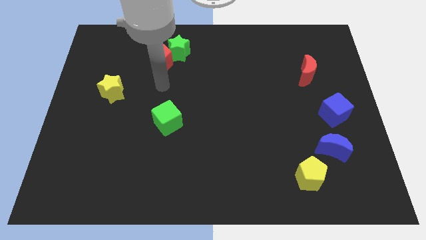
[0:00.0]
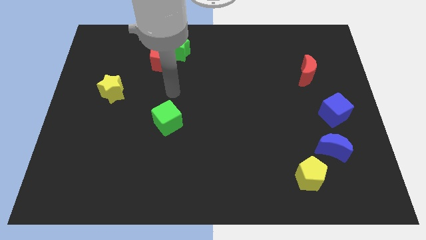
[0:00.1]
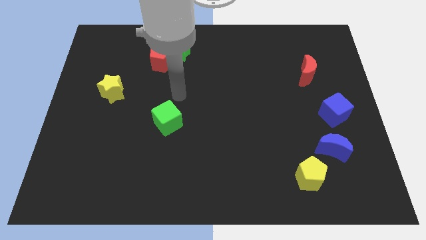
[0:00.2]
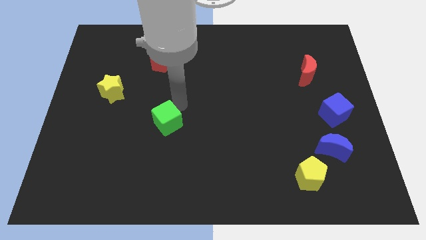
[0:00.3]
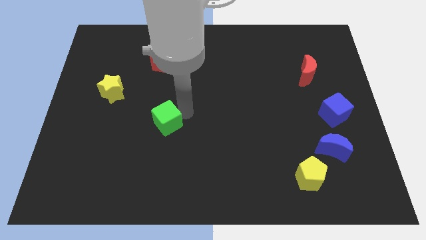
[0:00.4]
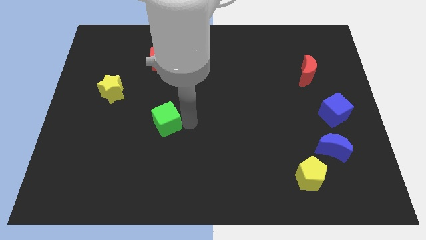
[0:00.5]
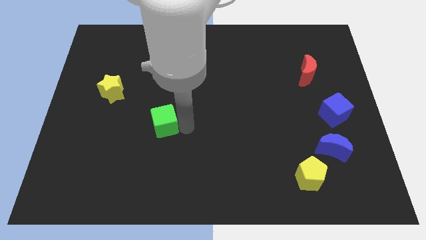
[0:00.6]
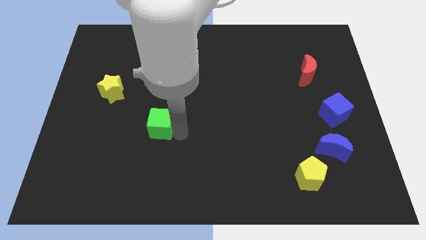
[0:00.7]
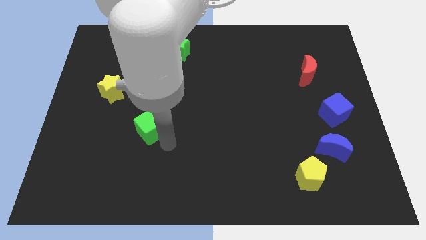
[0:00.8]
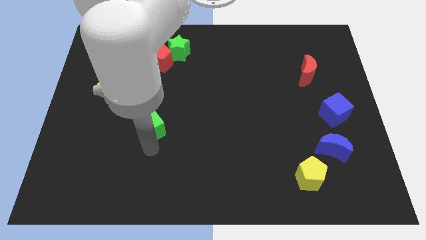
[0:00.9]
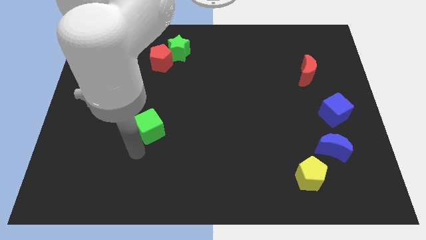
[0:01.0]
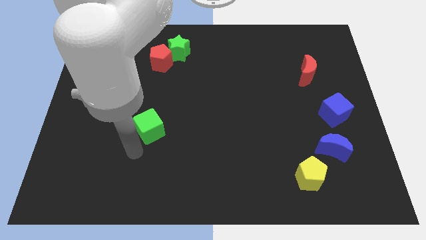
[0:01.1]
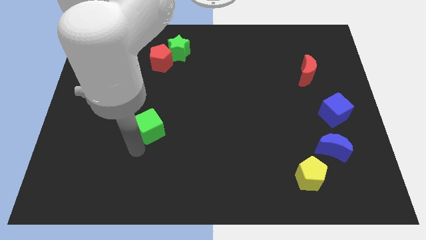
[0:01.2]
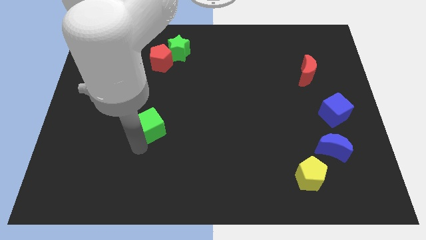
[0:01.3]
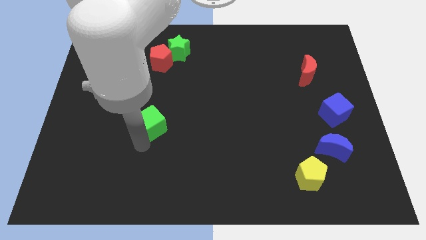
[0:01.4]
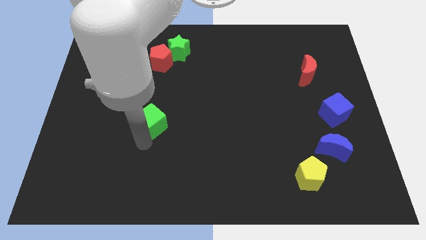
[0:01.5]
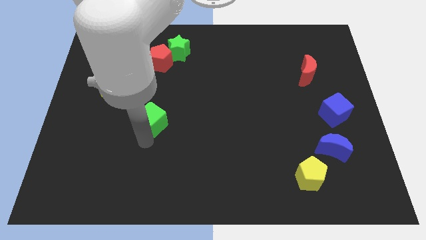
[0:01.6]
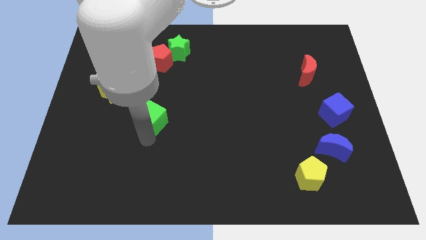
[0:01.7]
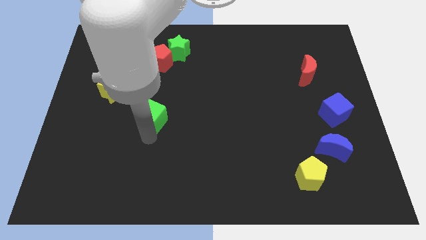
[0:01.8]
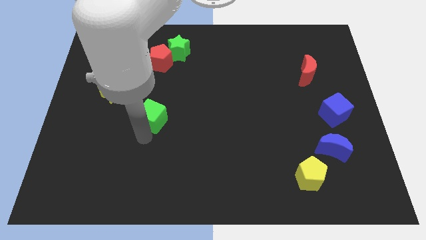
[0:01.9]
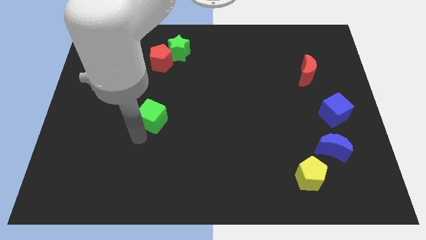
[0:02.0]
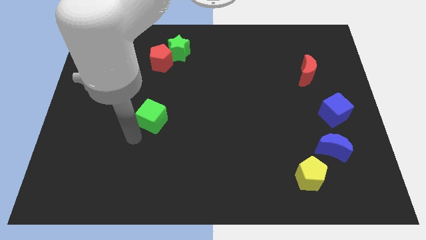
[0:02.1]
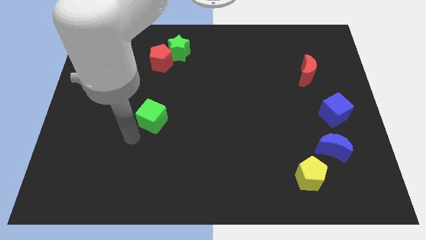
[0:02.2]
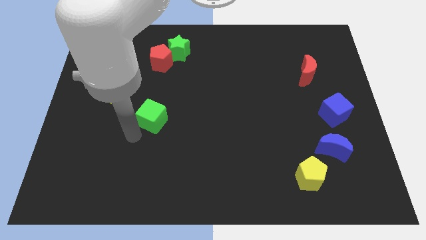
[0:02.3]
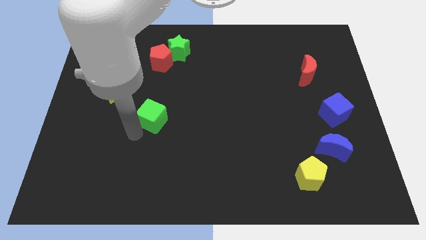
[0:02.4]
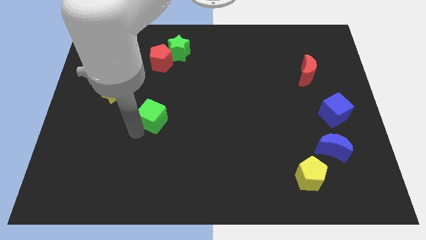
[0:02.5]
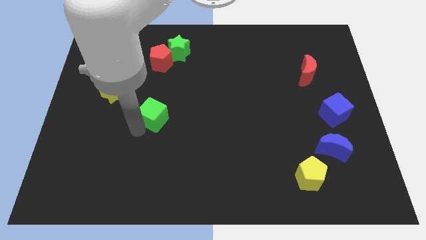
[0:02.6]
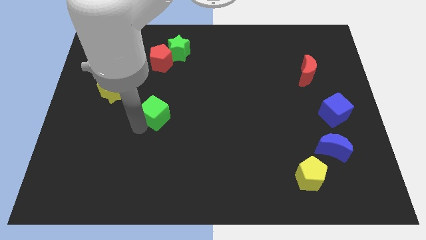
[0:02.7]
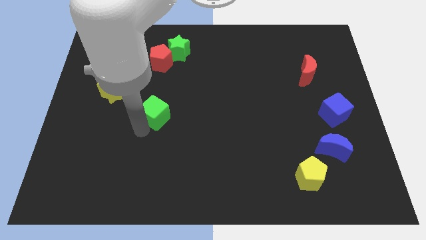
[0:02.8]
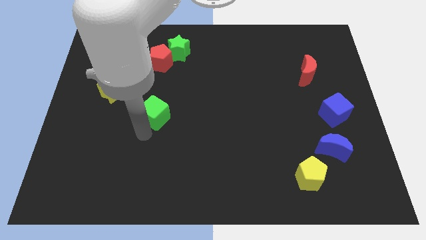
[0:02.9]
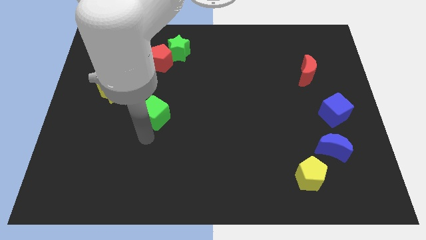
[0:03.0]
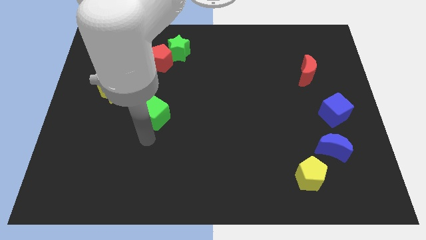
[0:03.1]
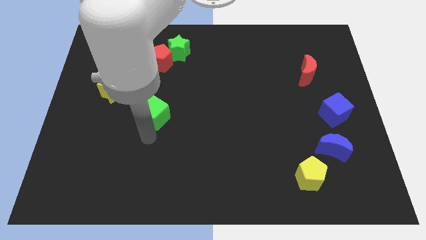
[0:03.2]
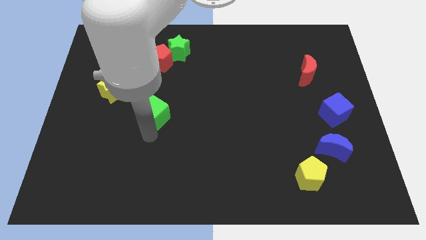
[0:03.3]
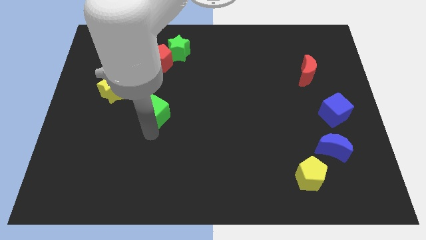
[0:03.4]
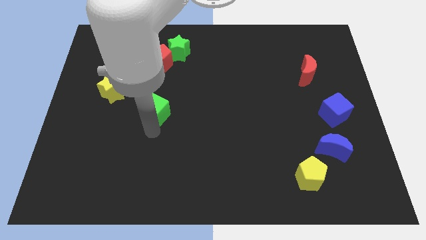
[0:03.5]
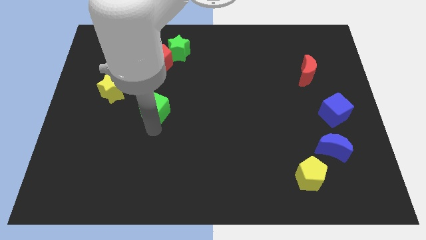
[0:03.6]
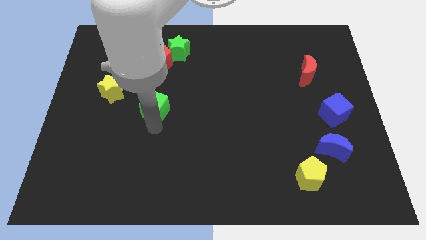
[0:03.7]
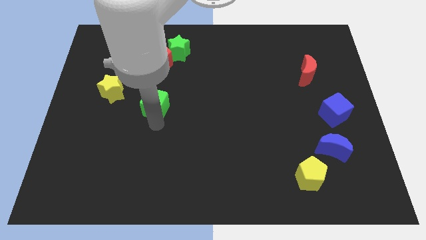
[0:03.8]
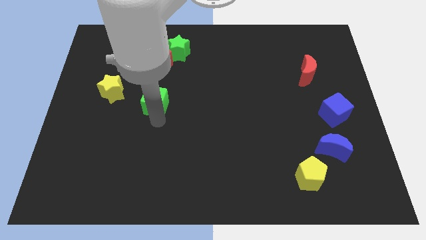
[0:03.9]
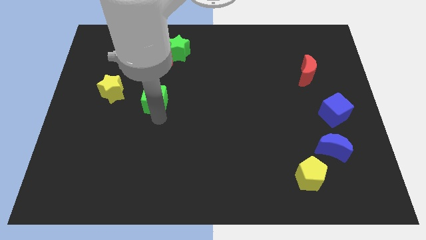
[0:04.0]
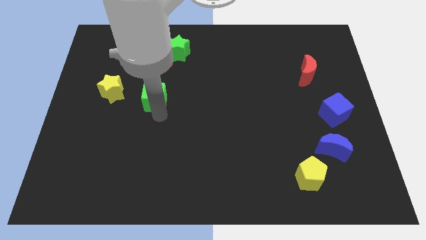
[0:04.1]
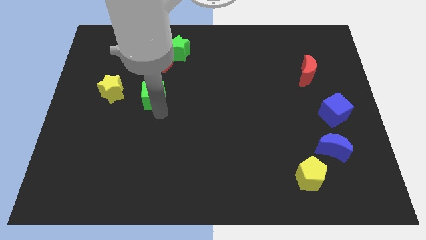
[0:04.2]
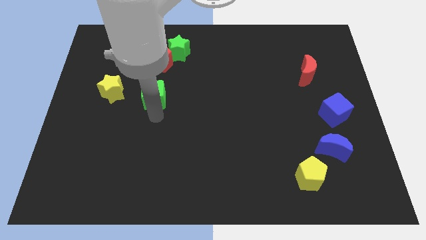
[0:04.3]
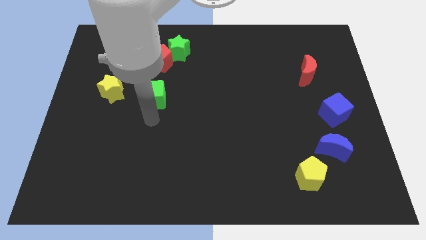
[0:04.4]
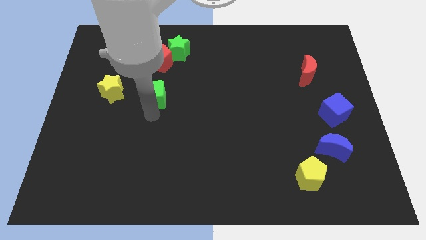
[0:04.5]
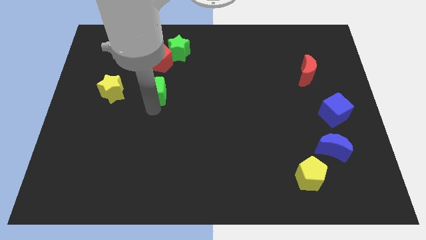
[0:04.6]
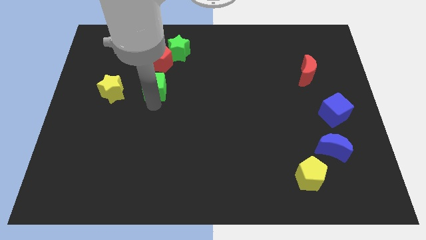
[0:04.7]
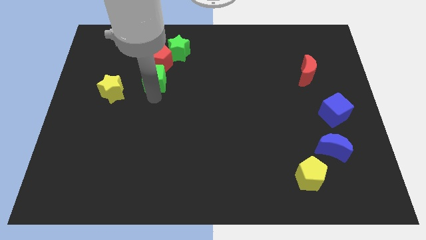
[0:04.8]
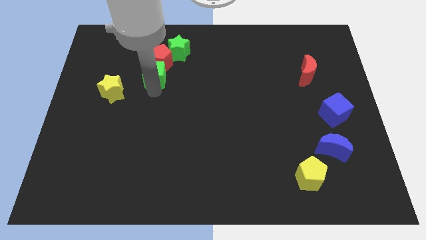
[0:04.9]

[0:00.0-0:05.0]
slide the green cube close to the red pentagon

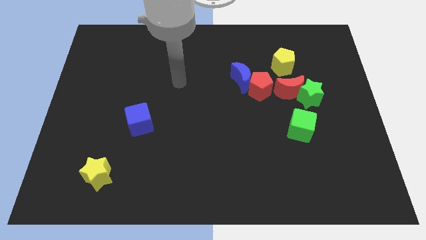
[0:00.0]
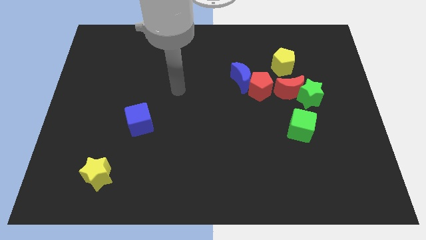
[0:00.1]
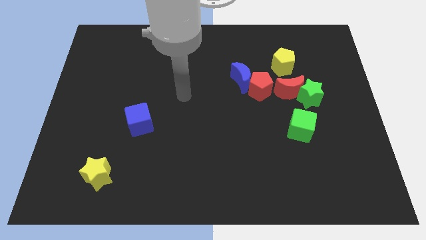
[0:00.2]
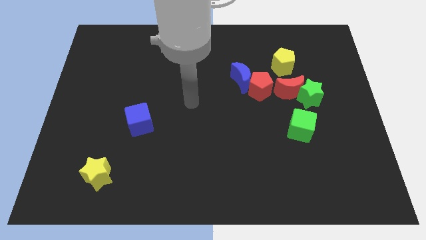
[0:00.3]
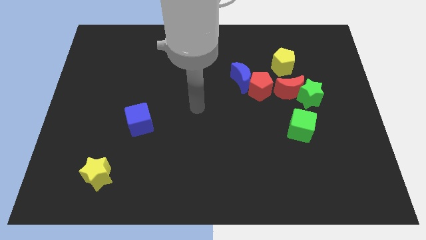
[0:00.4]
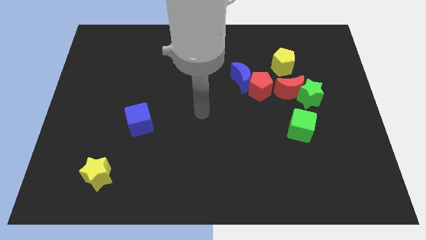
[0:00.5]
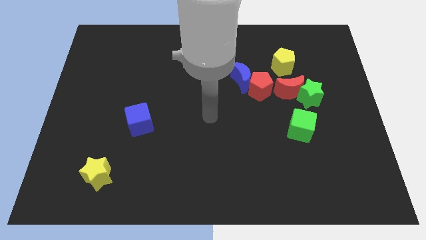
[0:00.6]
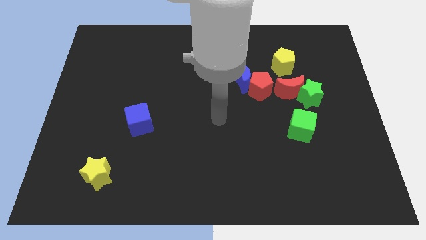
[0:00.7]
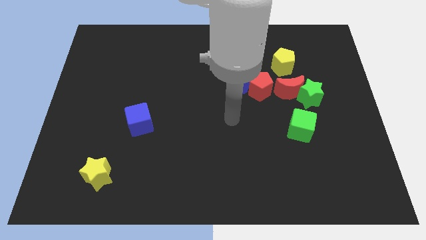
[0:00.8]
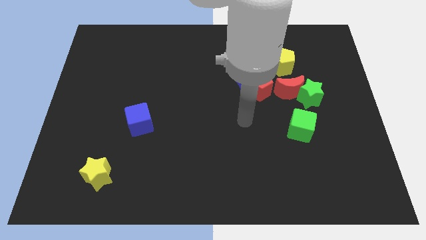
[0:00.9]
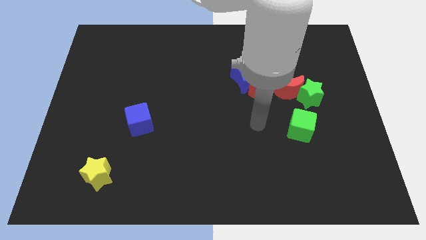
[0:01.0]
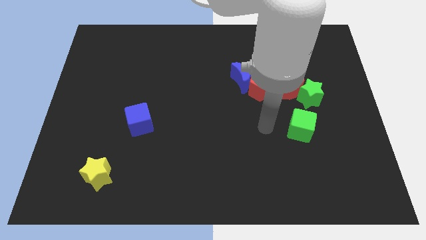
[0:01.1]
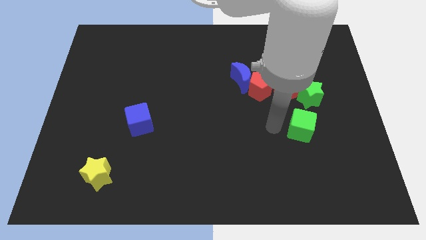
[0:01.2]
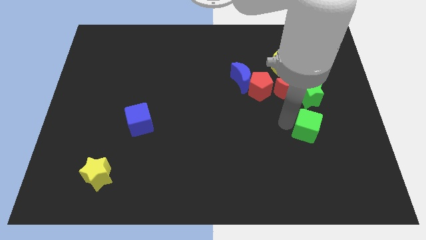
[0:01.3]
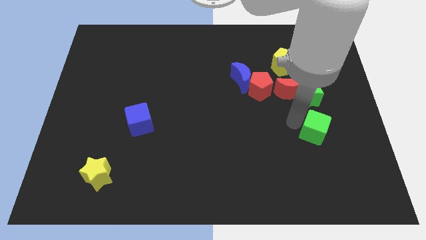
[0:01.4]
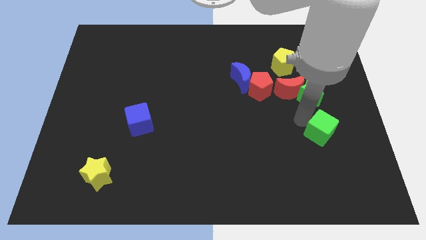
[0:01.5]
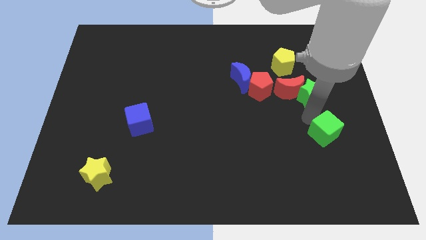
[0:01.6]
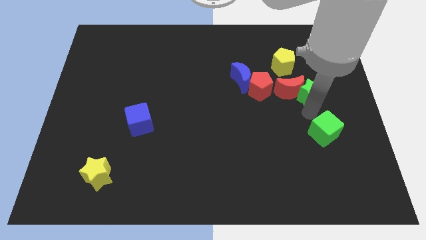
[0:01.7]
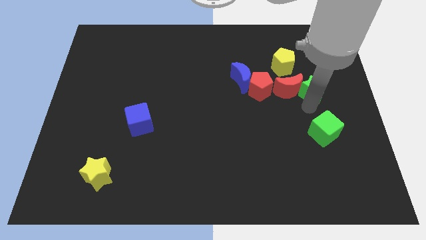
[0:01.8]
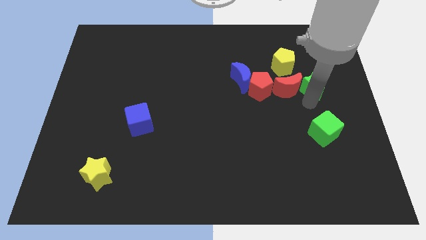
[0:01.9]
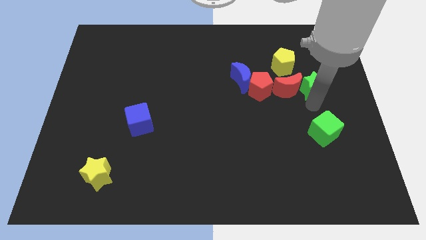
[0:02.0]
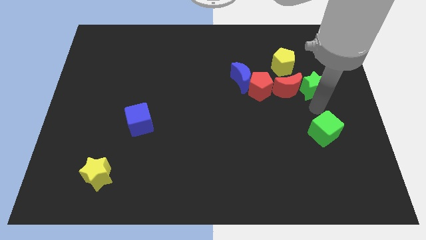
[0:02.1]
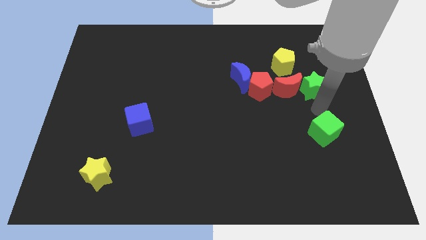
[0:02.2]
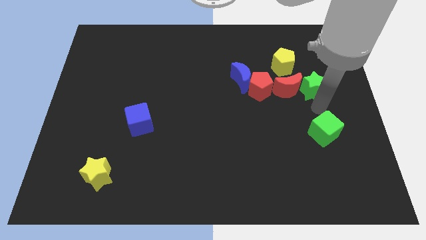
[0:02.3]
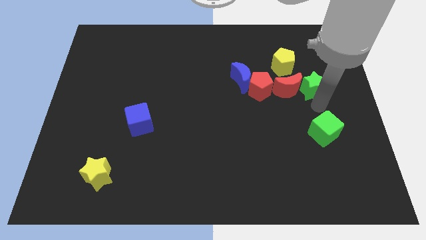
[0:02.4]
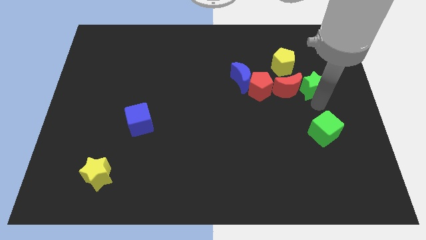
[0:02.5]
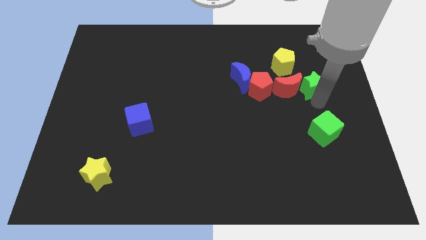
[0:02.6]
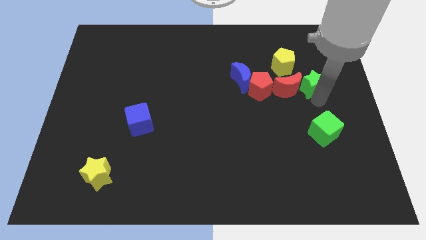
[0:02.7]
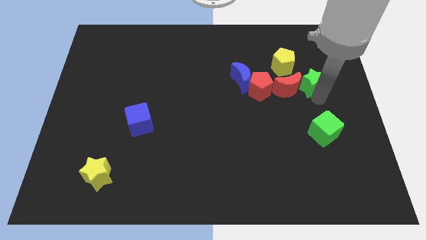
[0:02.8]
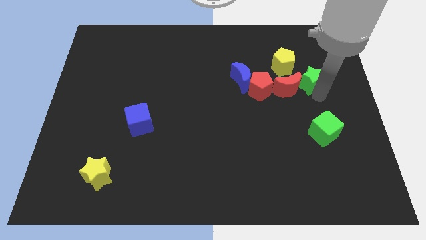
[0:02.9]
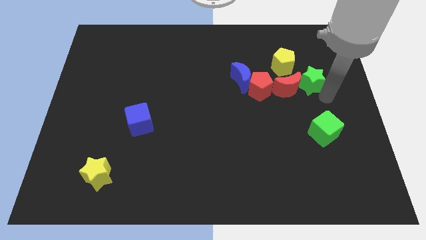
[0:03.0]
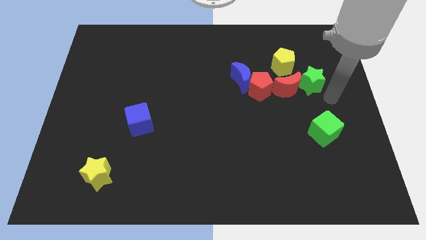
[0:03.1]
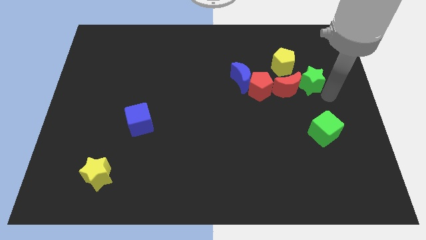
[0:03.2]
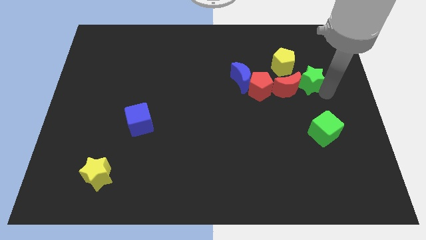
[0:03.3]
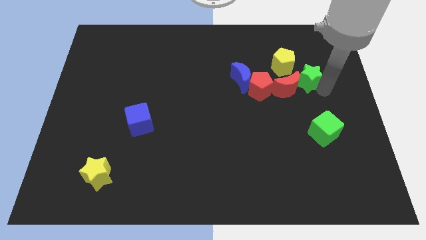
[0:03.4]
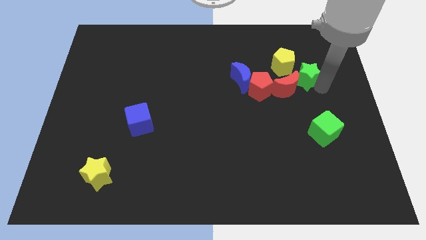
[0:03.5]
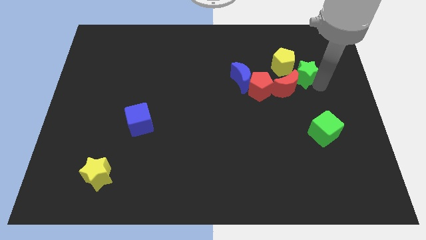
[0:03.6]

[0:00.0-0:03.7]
slide the green star close to the yellow pentagon
